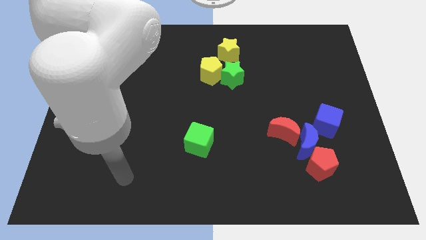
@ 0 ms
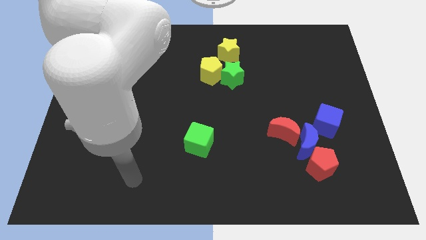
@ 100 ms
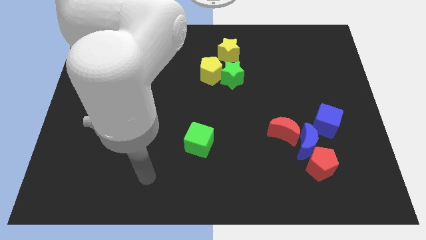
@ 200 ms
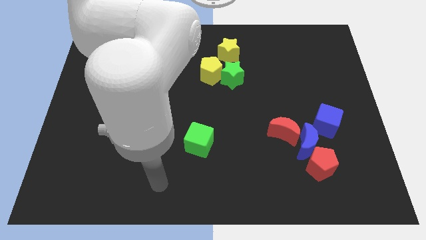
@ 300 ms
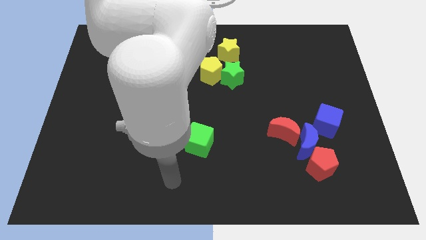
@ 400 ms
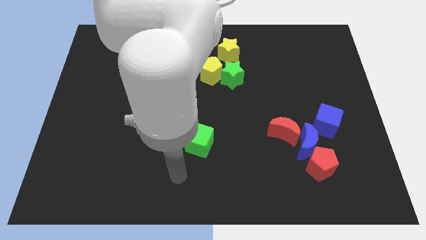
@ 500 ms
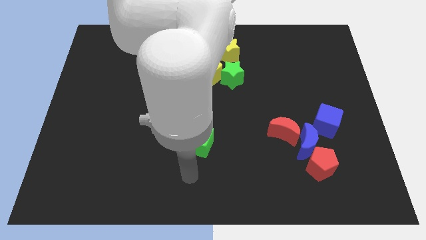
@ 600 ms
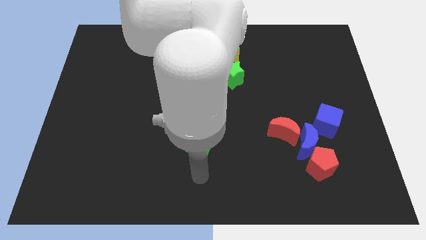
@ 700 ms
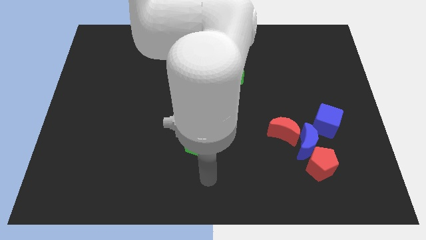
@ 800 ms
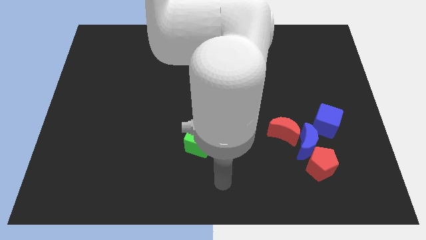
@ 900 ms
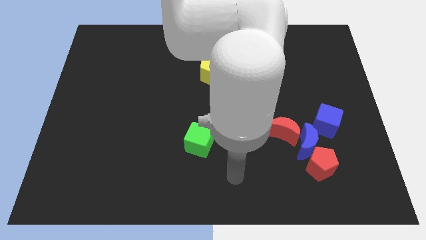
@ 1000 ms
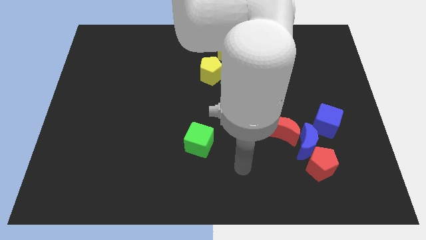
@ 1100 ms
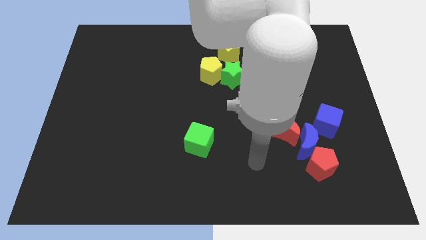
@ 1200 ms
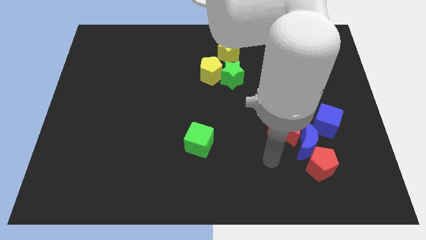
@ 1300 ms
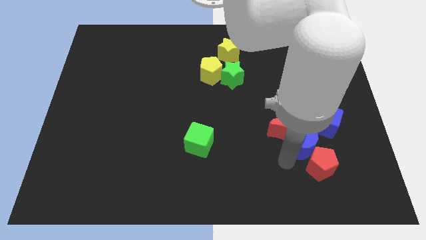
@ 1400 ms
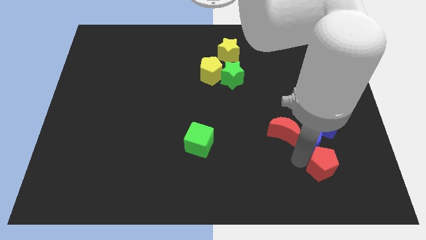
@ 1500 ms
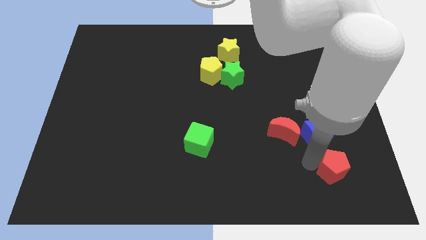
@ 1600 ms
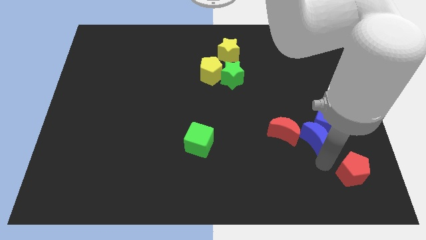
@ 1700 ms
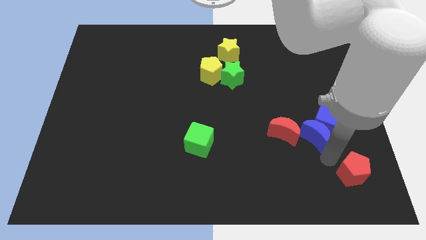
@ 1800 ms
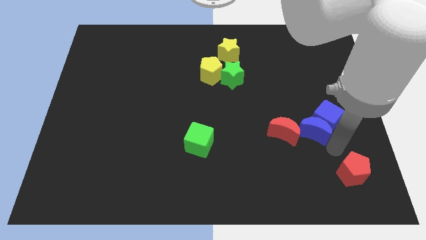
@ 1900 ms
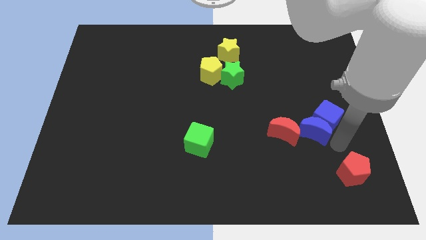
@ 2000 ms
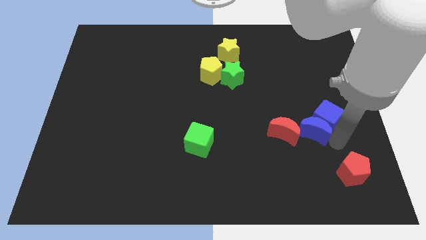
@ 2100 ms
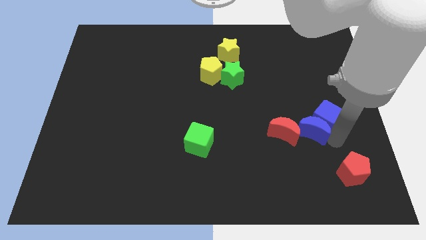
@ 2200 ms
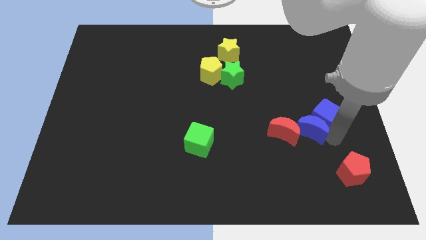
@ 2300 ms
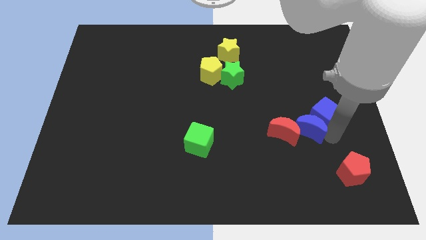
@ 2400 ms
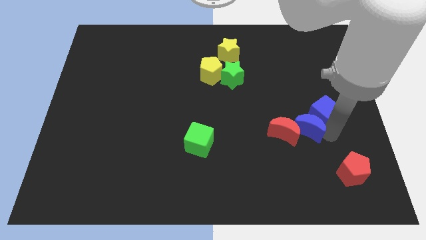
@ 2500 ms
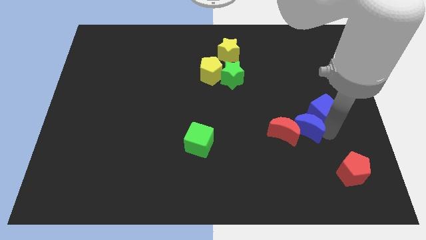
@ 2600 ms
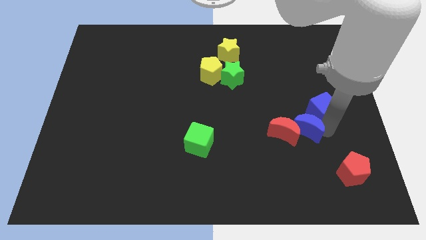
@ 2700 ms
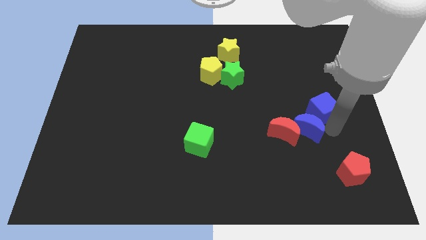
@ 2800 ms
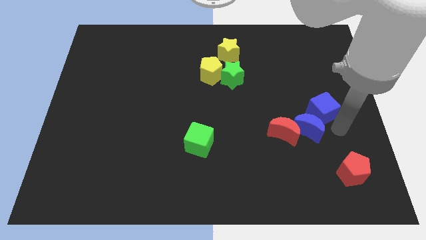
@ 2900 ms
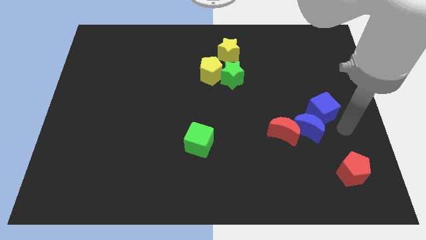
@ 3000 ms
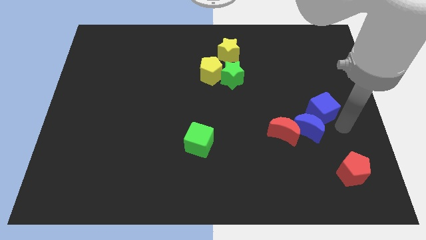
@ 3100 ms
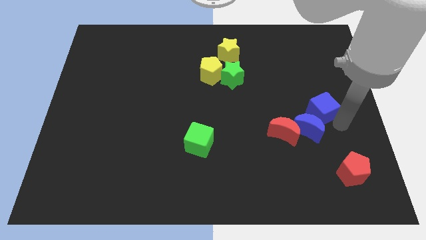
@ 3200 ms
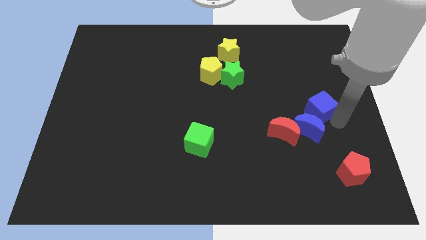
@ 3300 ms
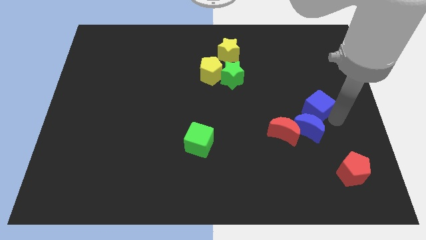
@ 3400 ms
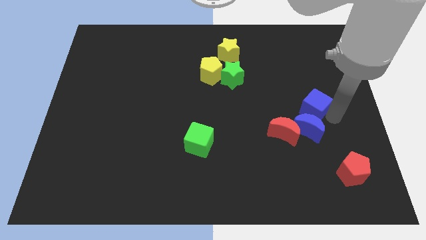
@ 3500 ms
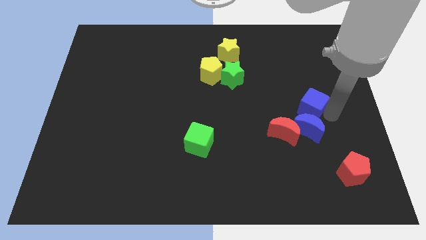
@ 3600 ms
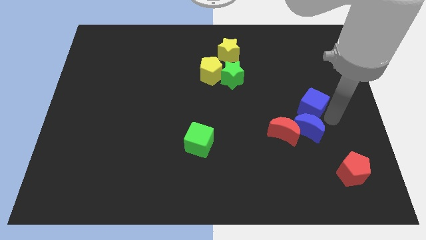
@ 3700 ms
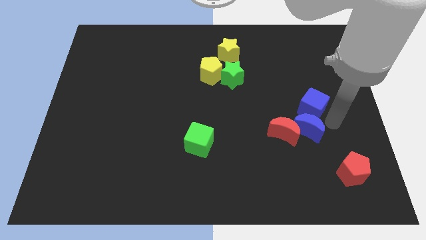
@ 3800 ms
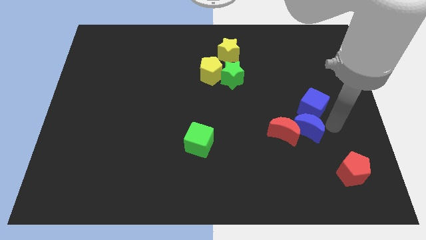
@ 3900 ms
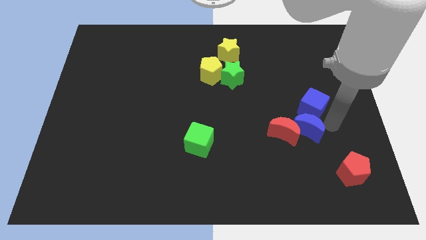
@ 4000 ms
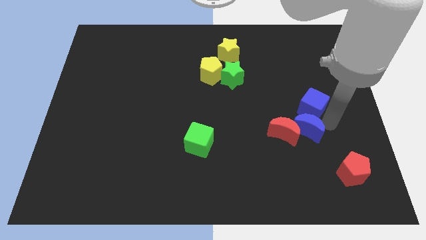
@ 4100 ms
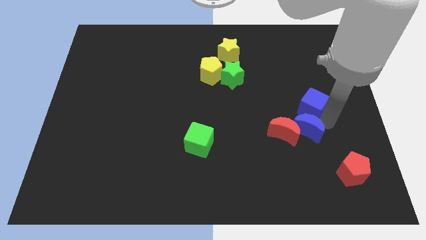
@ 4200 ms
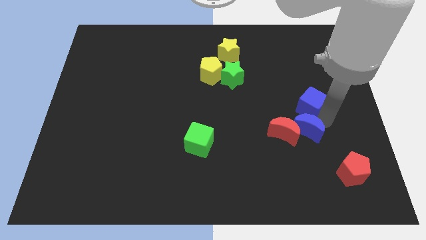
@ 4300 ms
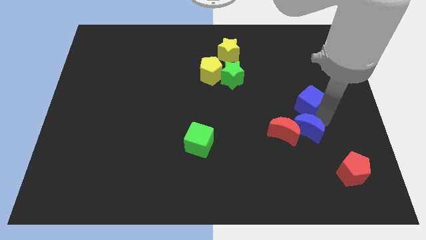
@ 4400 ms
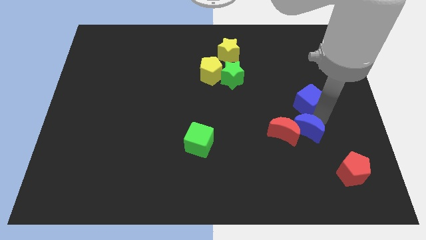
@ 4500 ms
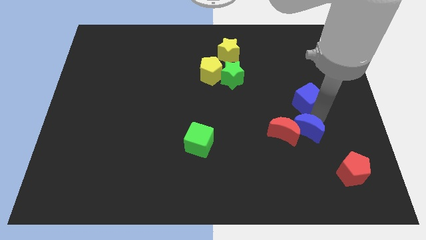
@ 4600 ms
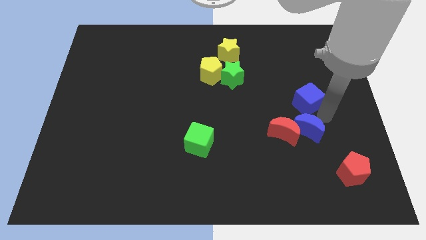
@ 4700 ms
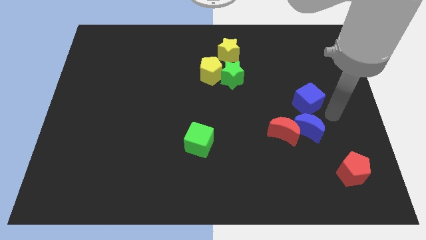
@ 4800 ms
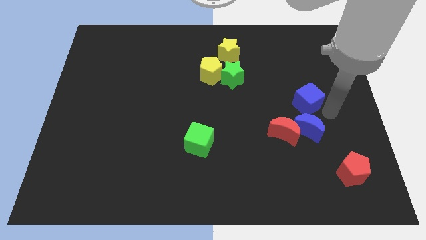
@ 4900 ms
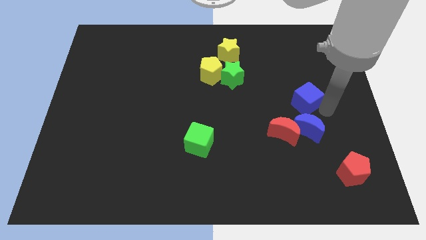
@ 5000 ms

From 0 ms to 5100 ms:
slightly push the blue cube diagonally upwards and left

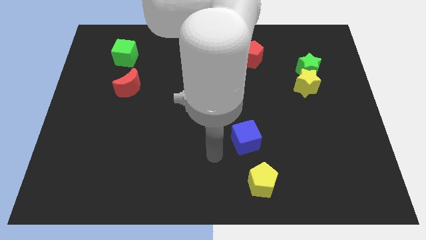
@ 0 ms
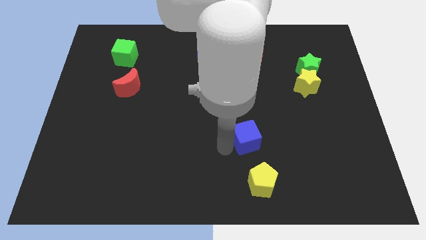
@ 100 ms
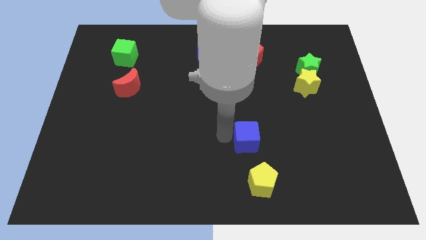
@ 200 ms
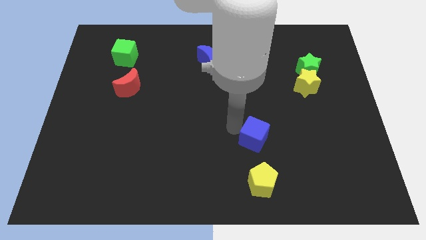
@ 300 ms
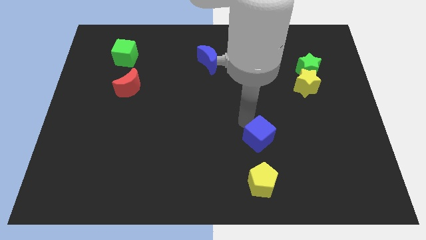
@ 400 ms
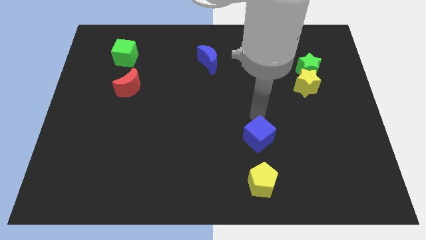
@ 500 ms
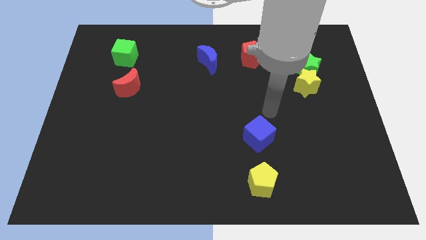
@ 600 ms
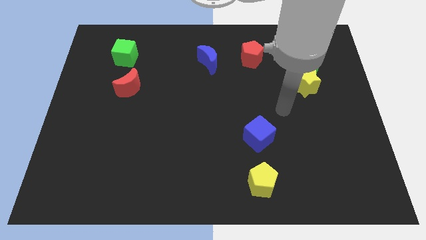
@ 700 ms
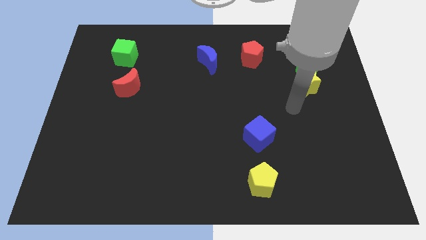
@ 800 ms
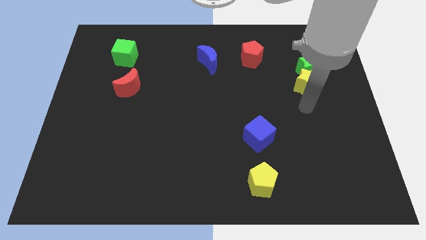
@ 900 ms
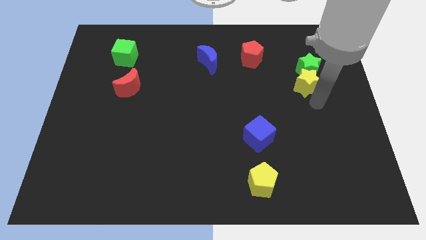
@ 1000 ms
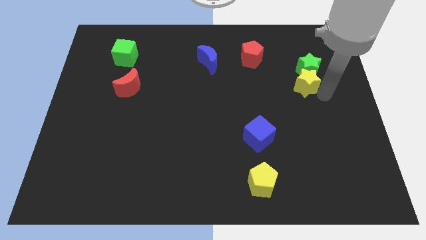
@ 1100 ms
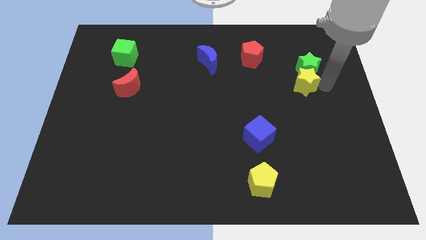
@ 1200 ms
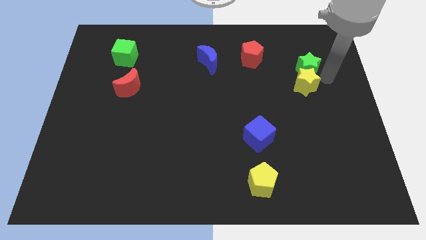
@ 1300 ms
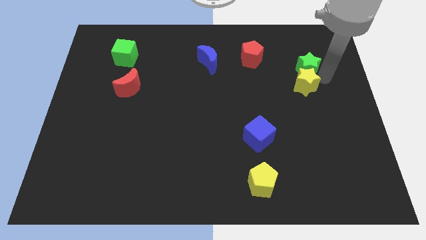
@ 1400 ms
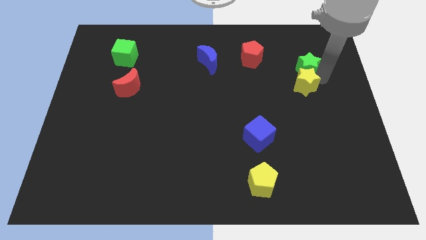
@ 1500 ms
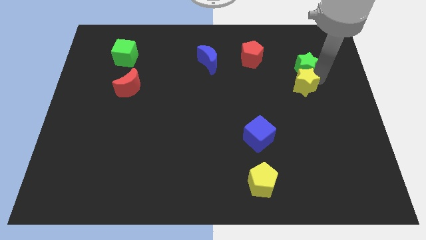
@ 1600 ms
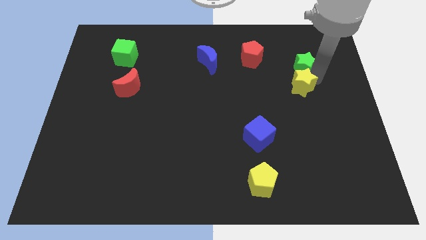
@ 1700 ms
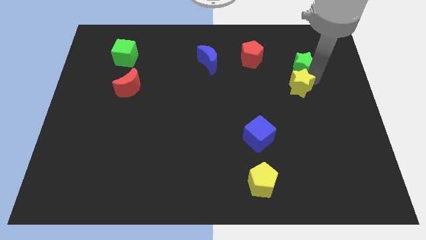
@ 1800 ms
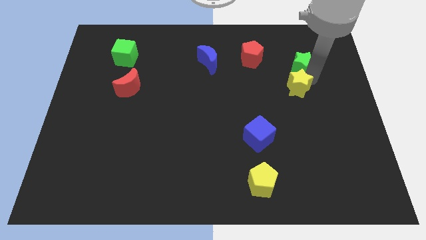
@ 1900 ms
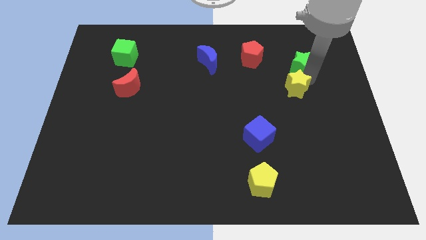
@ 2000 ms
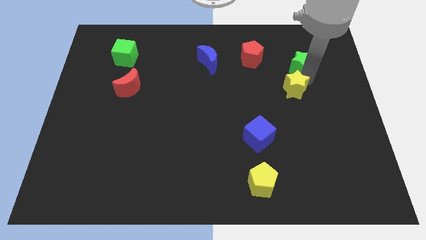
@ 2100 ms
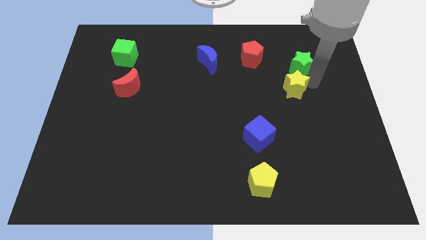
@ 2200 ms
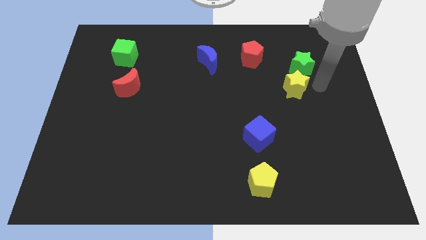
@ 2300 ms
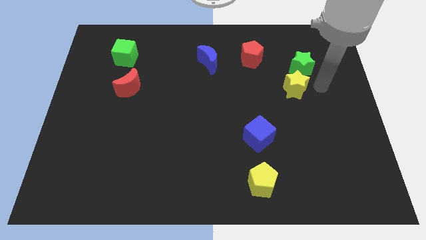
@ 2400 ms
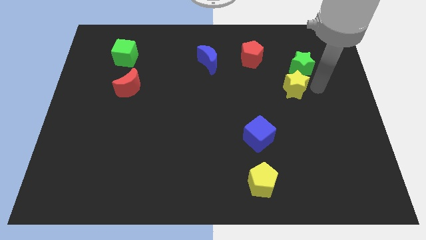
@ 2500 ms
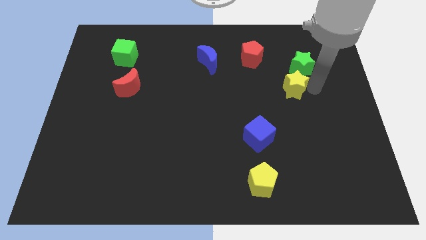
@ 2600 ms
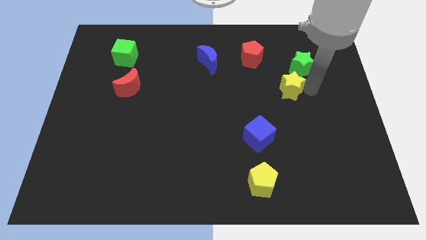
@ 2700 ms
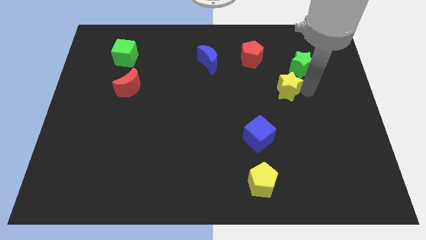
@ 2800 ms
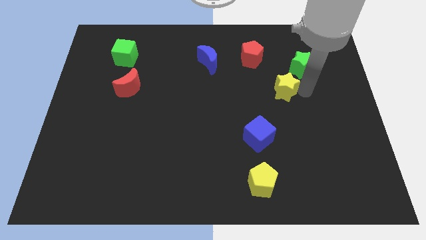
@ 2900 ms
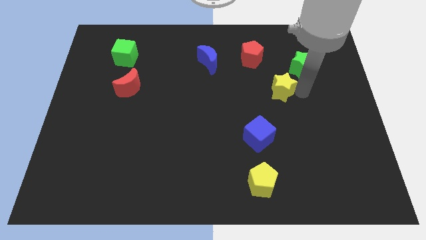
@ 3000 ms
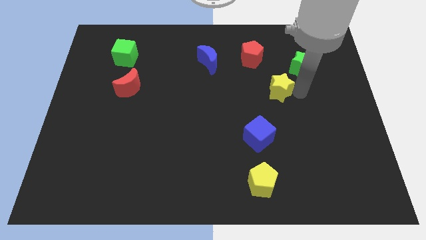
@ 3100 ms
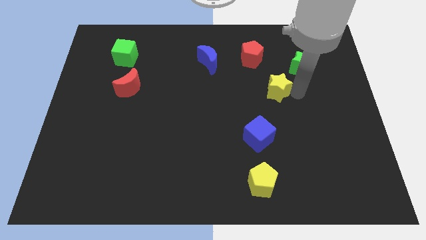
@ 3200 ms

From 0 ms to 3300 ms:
push the yellow star to the left a bit
